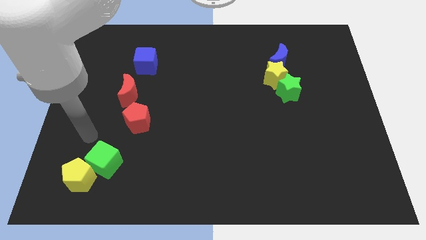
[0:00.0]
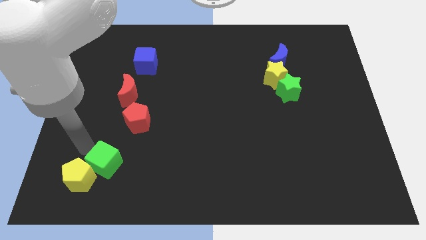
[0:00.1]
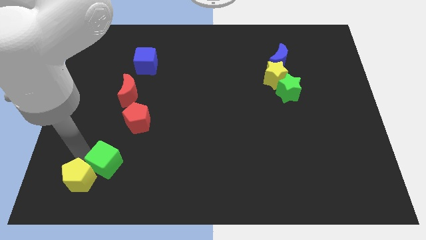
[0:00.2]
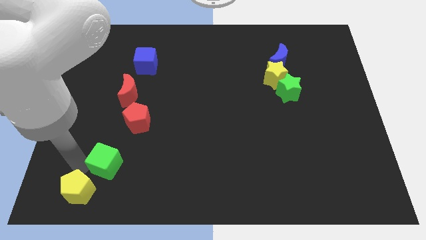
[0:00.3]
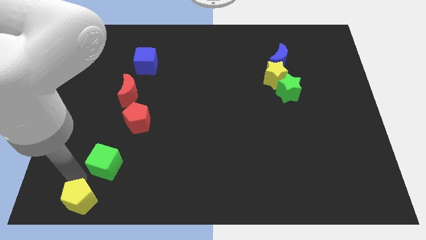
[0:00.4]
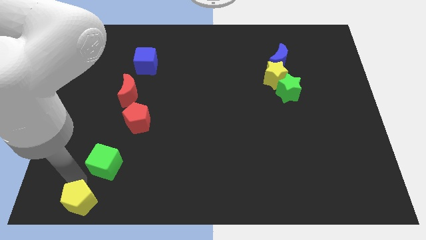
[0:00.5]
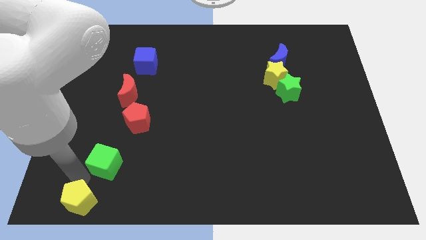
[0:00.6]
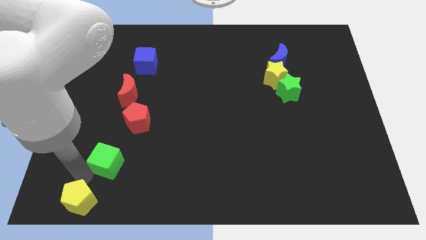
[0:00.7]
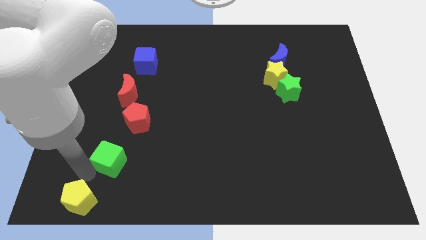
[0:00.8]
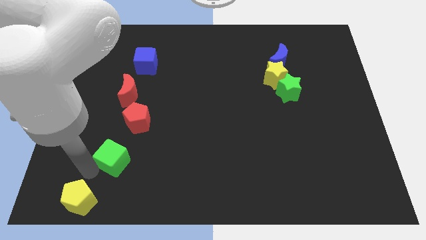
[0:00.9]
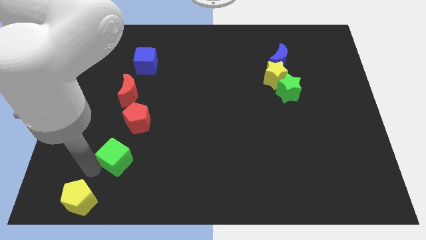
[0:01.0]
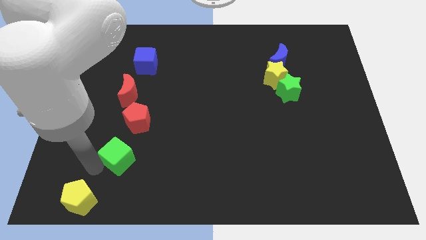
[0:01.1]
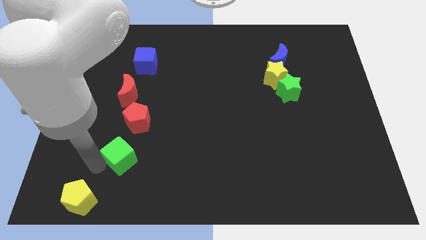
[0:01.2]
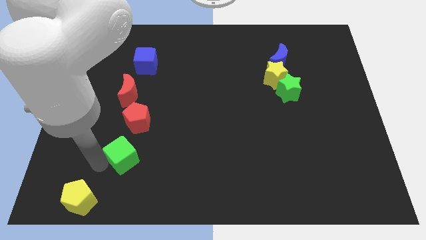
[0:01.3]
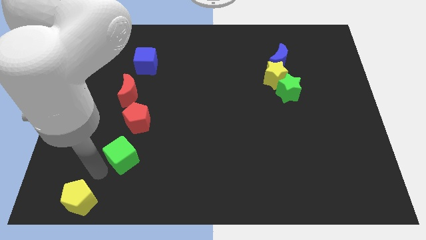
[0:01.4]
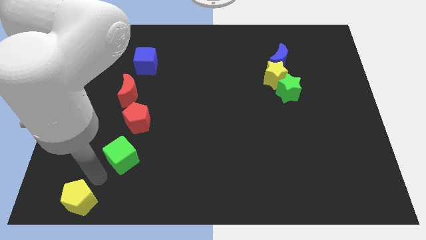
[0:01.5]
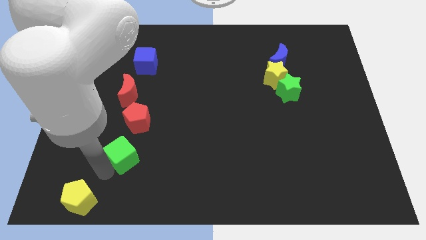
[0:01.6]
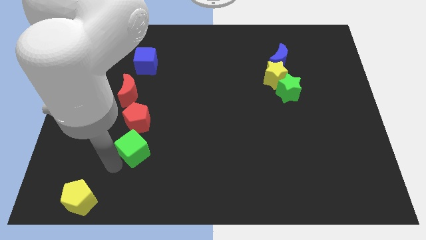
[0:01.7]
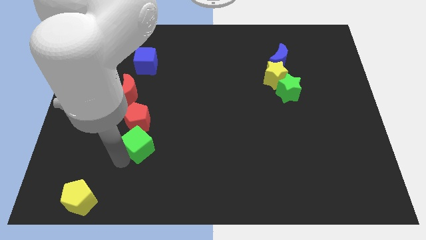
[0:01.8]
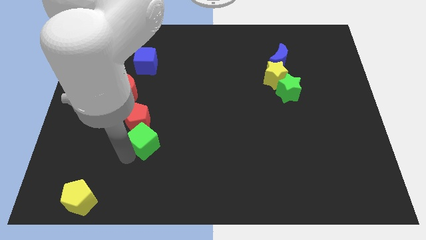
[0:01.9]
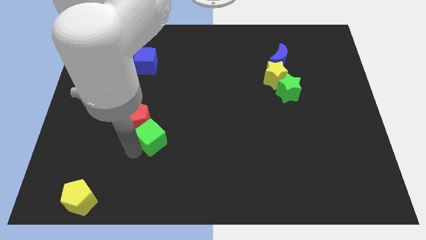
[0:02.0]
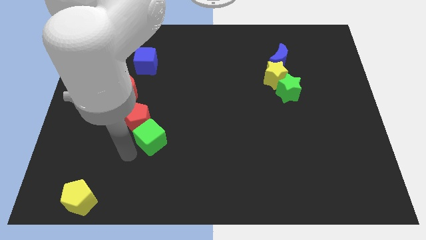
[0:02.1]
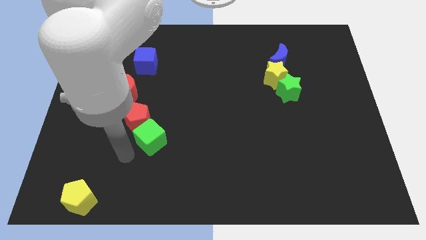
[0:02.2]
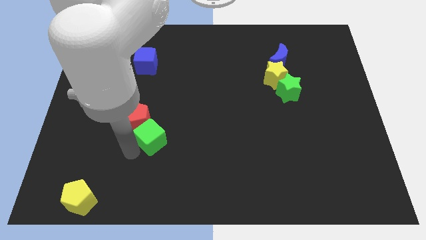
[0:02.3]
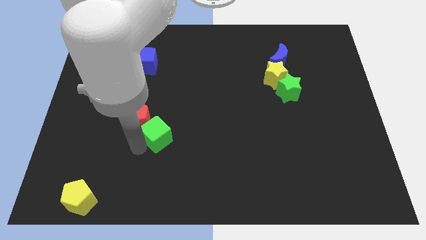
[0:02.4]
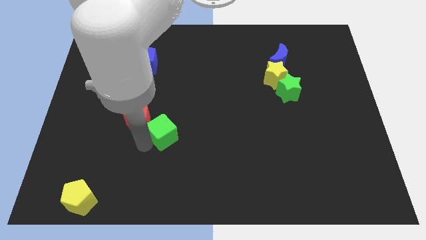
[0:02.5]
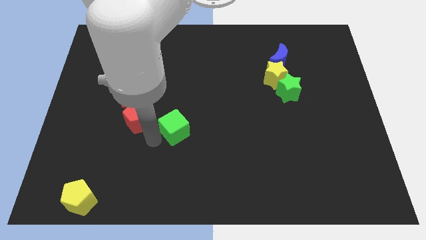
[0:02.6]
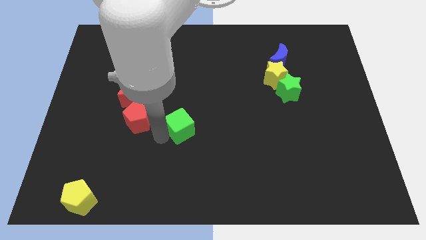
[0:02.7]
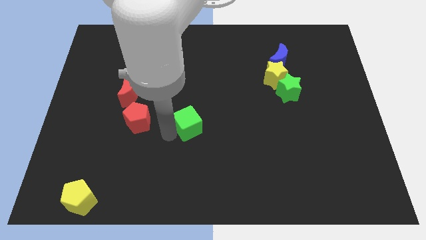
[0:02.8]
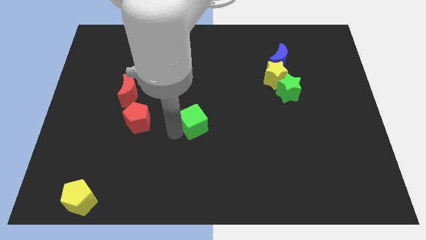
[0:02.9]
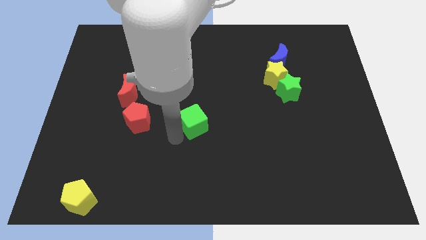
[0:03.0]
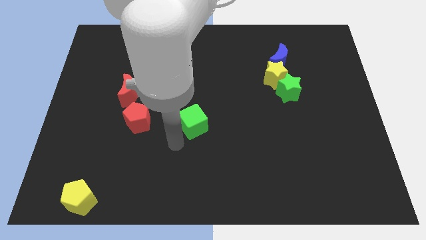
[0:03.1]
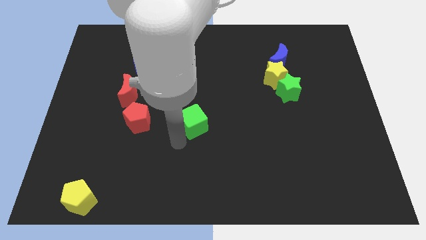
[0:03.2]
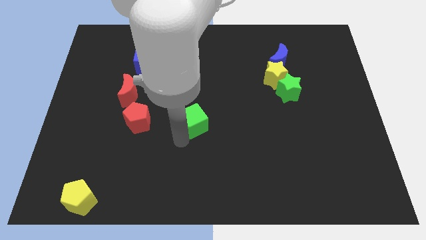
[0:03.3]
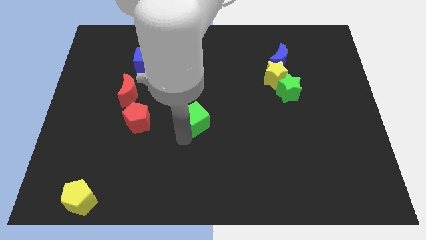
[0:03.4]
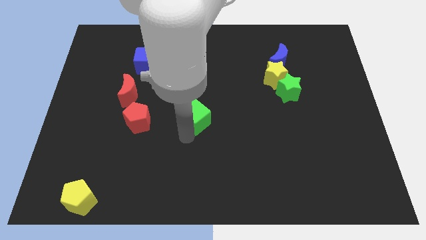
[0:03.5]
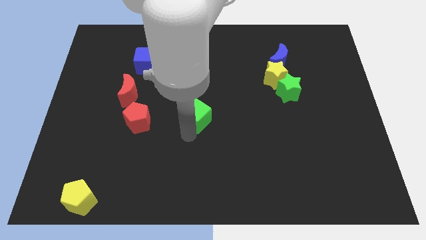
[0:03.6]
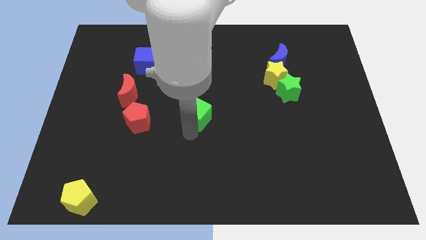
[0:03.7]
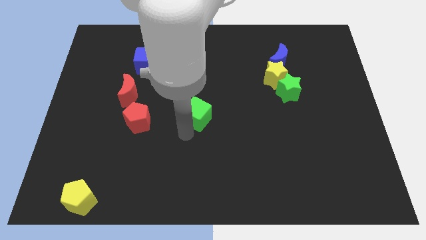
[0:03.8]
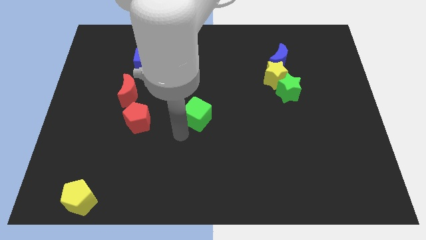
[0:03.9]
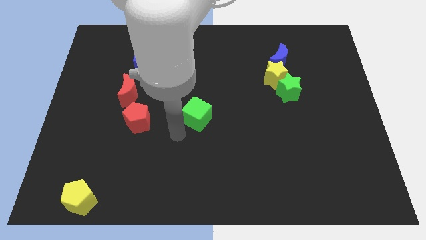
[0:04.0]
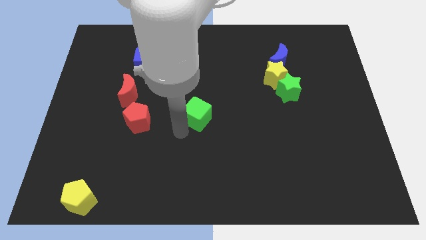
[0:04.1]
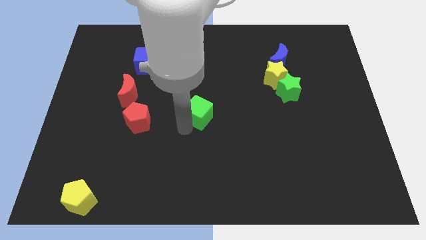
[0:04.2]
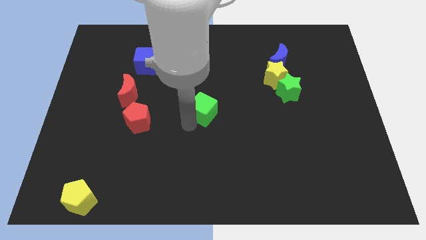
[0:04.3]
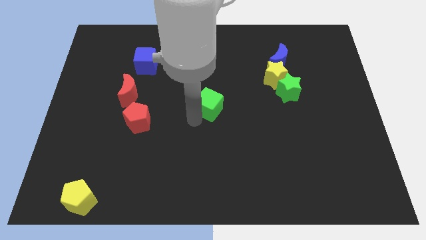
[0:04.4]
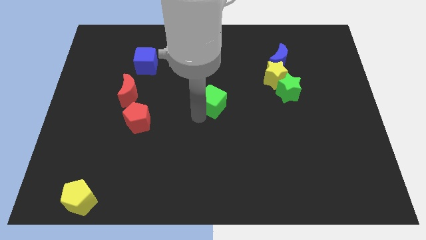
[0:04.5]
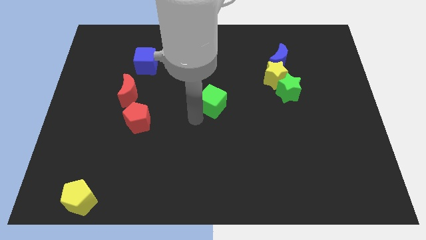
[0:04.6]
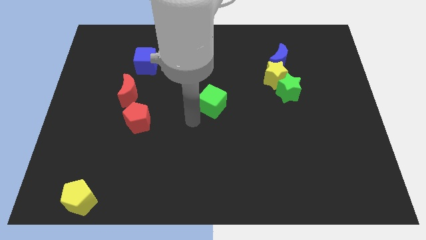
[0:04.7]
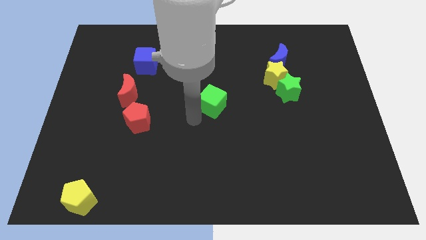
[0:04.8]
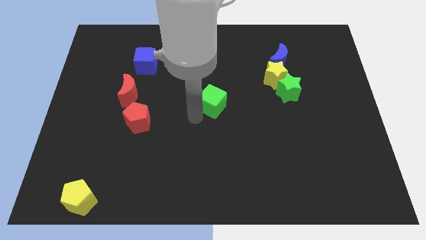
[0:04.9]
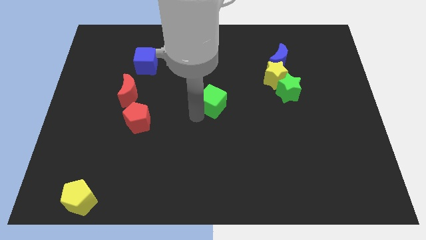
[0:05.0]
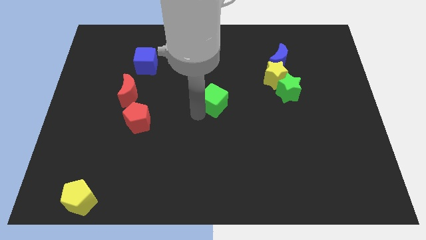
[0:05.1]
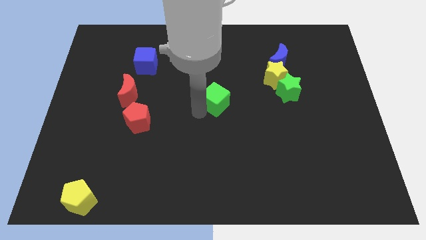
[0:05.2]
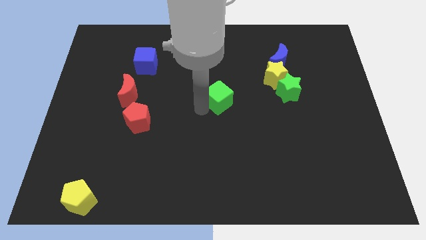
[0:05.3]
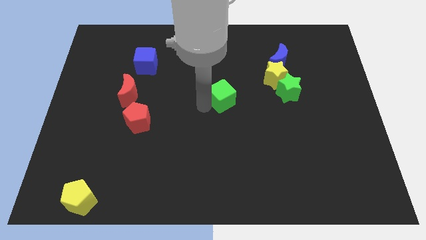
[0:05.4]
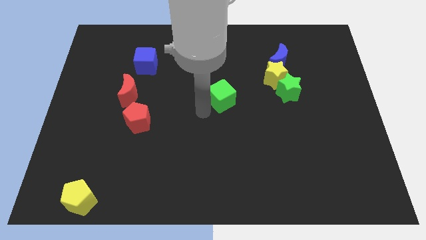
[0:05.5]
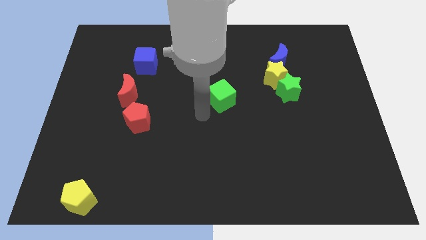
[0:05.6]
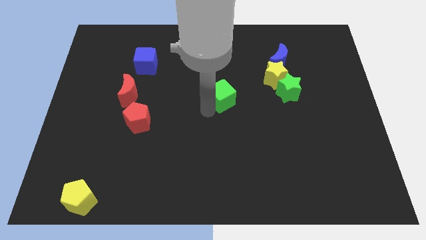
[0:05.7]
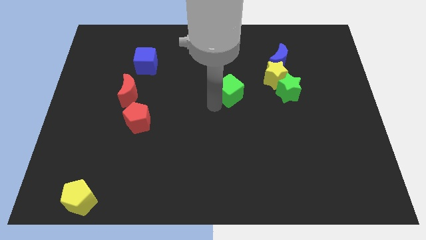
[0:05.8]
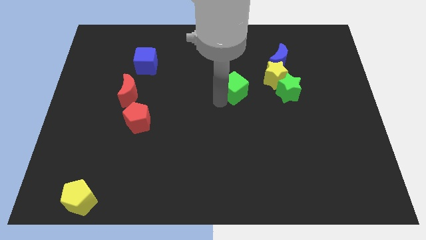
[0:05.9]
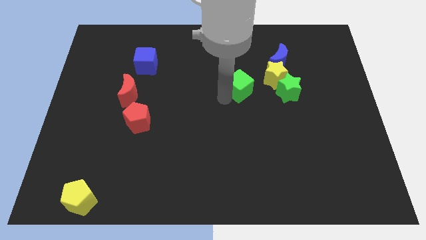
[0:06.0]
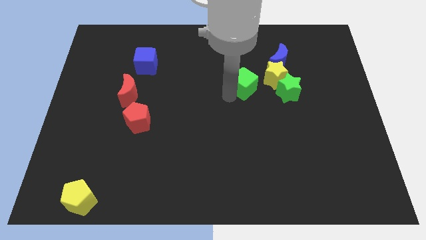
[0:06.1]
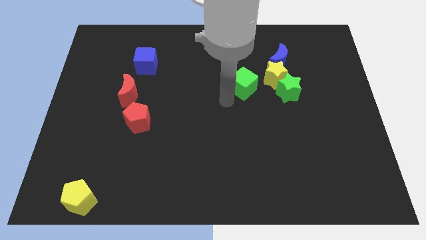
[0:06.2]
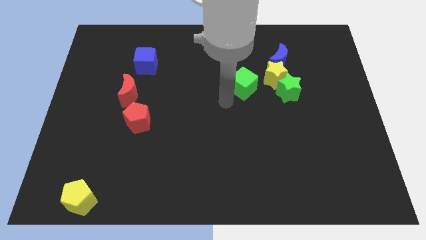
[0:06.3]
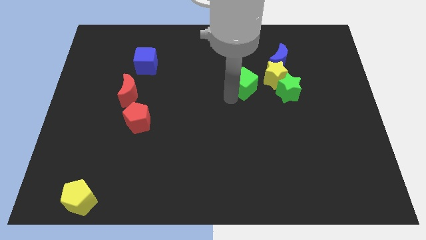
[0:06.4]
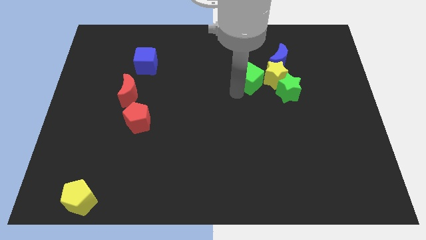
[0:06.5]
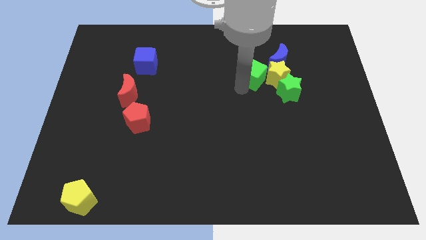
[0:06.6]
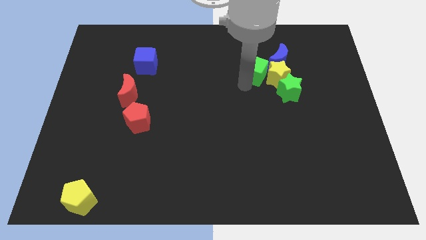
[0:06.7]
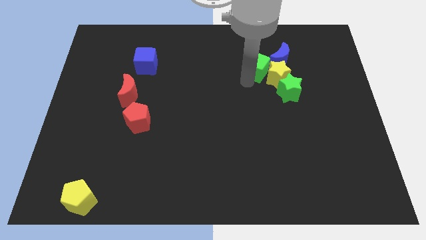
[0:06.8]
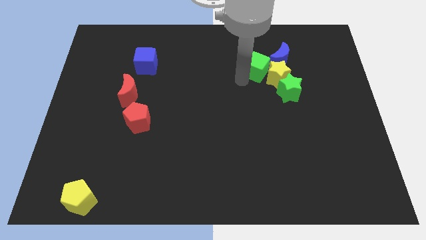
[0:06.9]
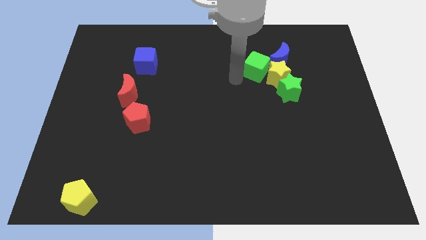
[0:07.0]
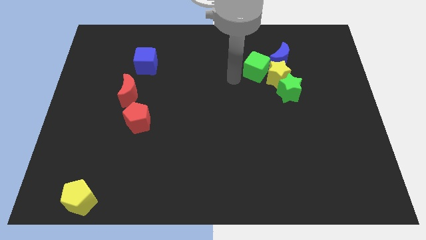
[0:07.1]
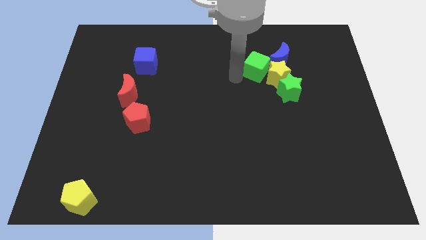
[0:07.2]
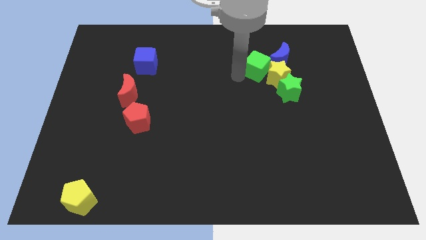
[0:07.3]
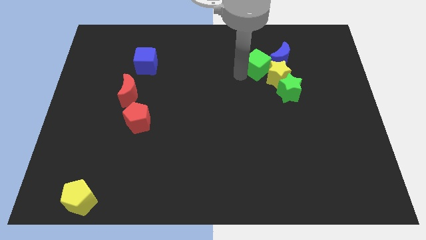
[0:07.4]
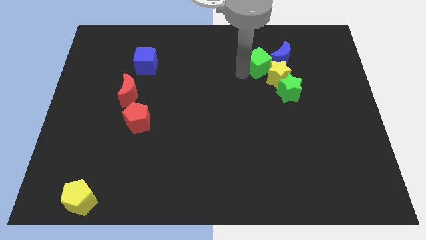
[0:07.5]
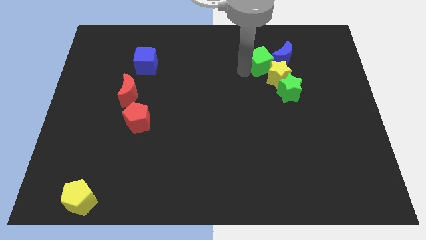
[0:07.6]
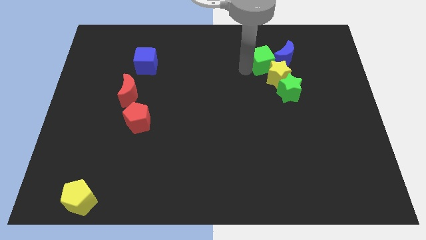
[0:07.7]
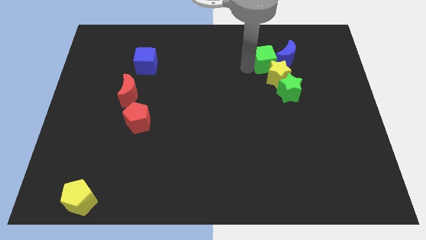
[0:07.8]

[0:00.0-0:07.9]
slide the green cube next to the blue moon

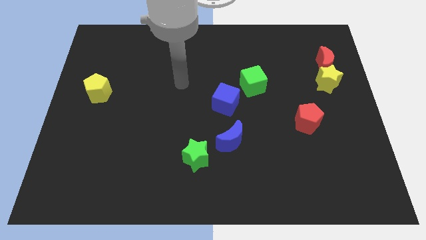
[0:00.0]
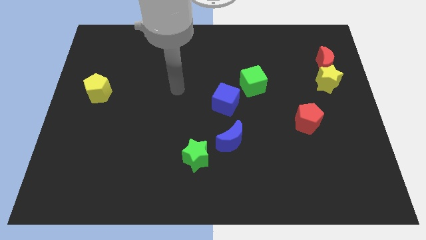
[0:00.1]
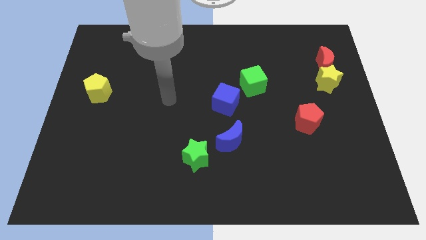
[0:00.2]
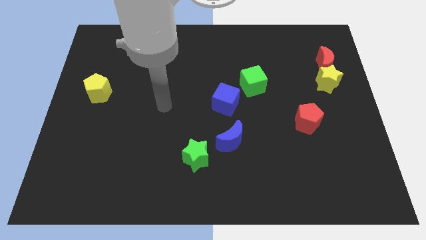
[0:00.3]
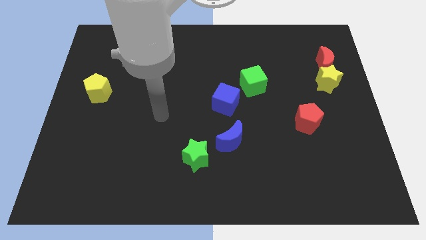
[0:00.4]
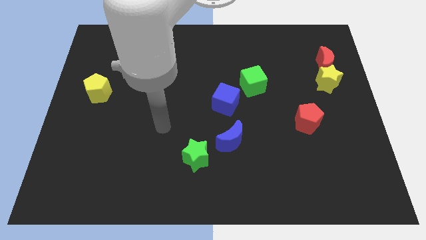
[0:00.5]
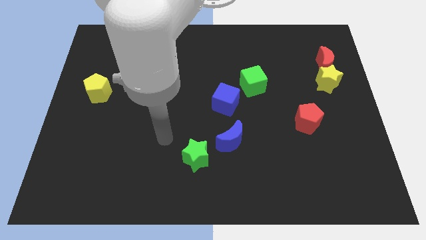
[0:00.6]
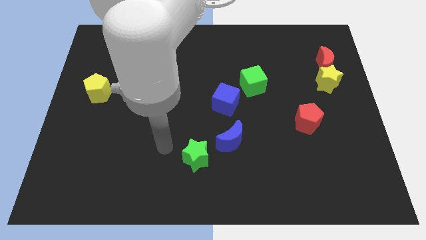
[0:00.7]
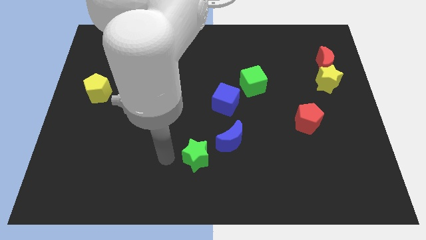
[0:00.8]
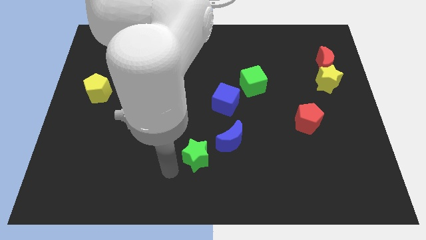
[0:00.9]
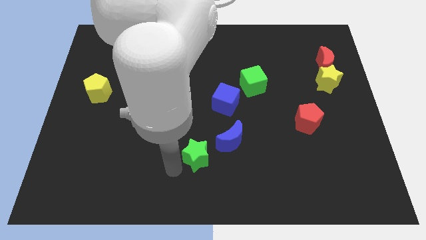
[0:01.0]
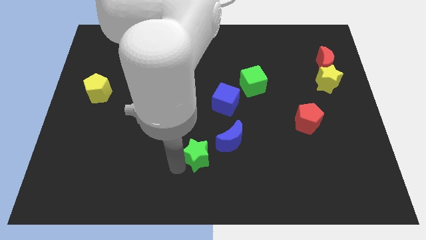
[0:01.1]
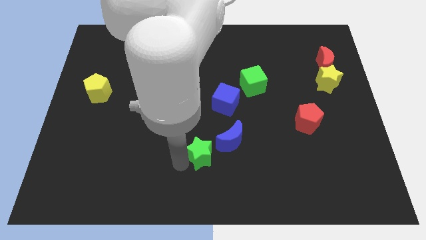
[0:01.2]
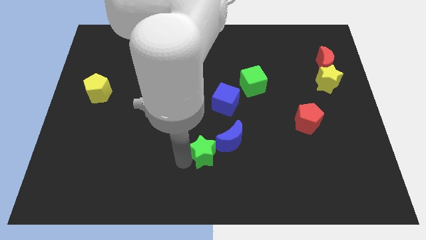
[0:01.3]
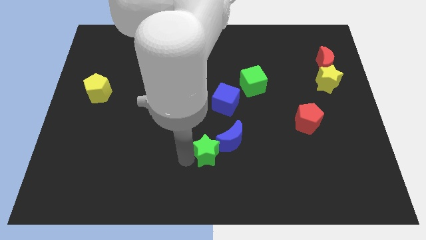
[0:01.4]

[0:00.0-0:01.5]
push the green star next to the blue moon
